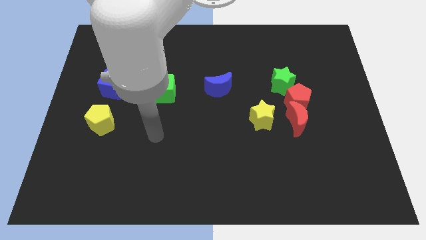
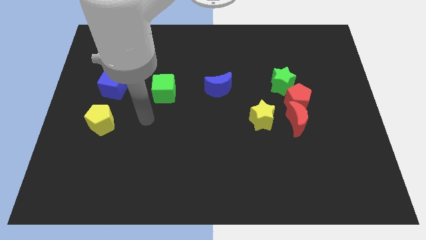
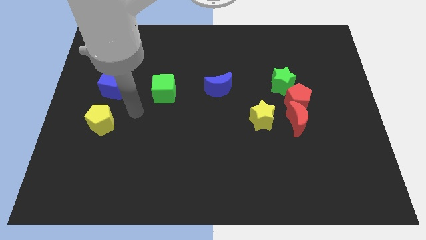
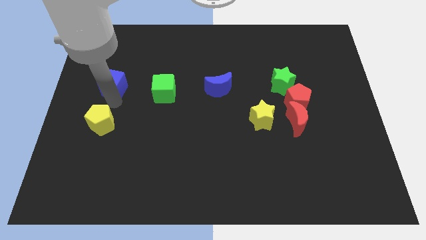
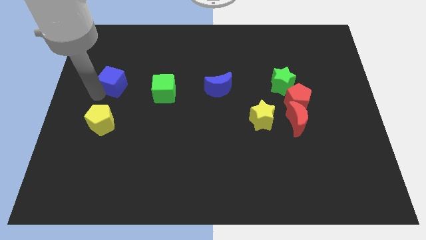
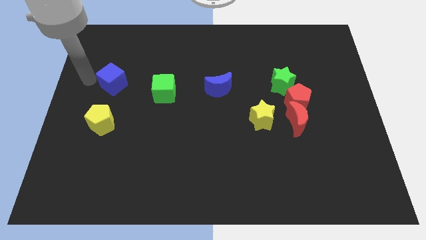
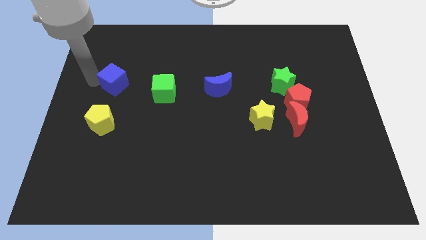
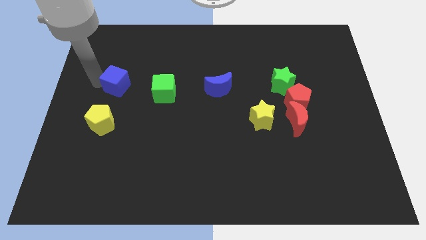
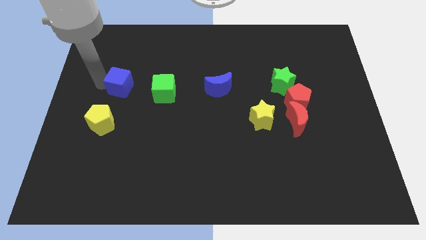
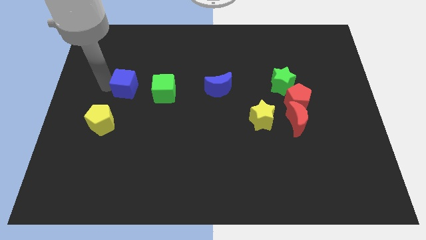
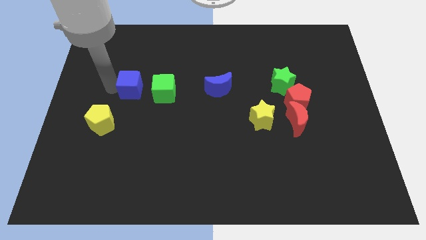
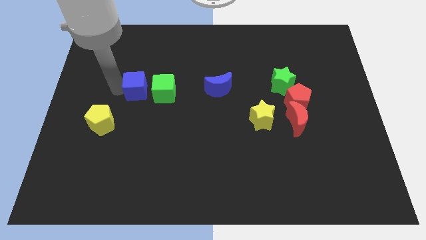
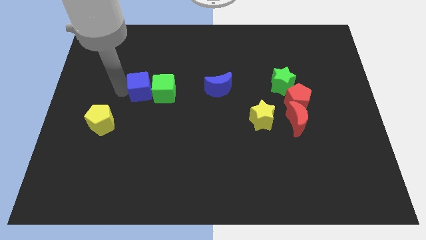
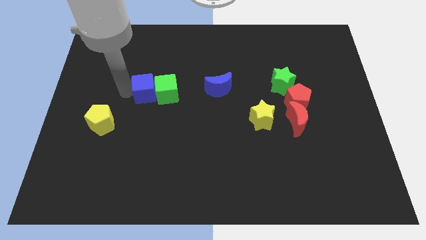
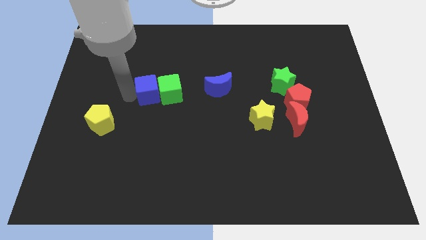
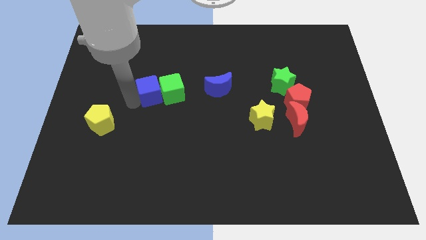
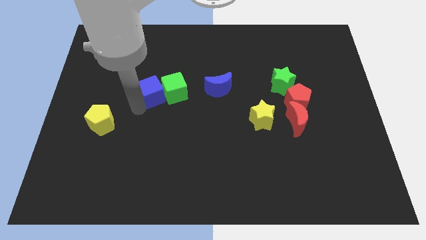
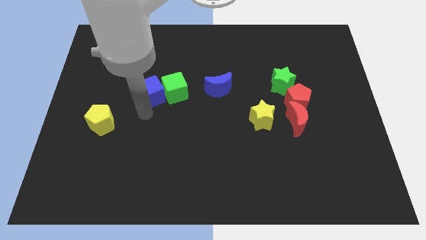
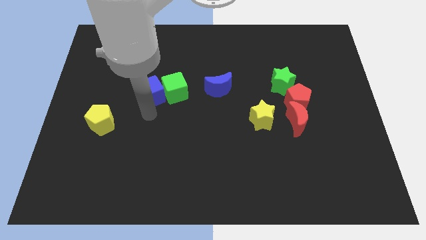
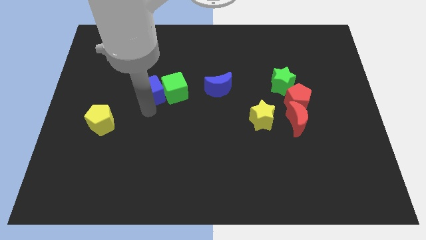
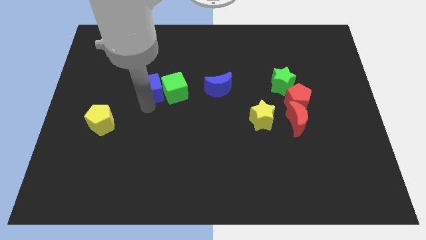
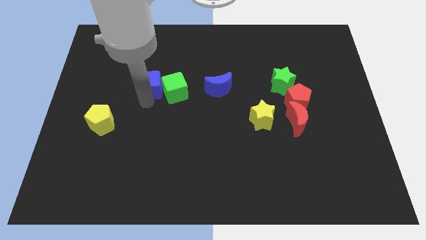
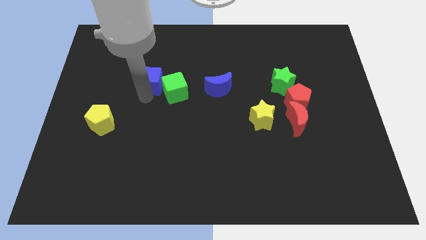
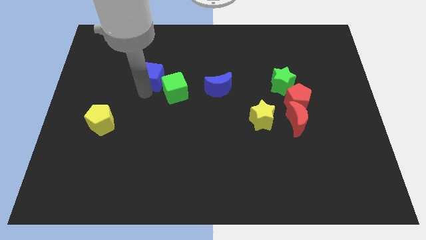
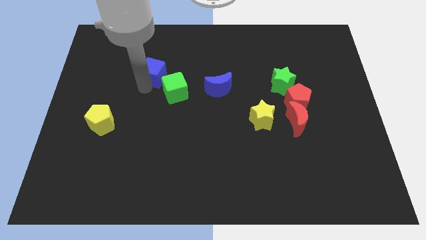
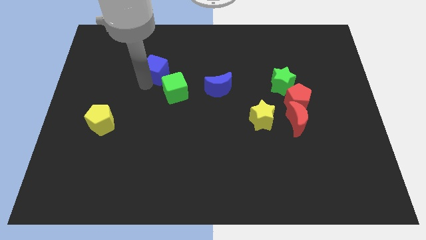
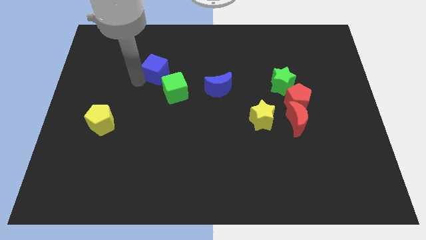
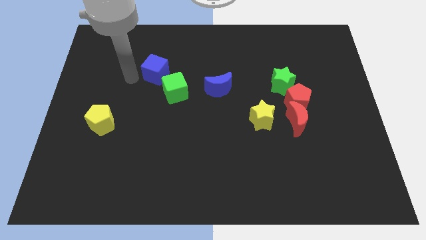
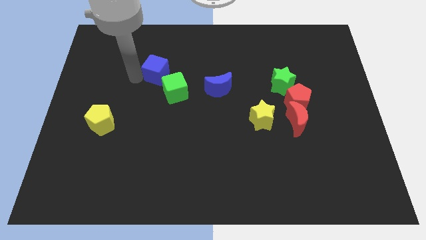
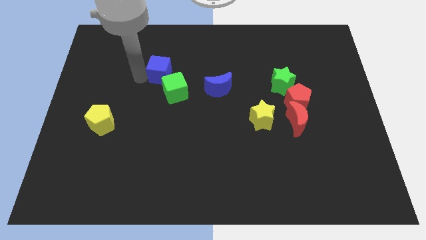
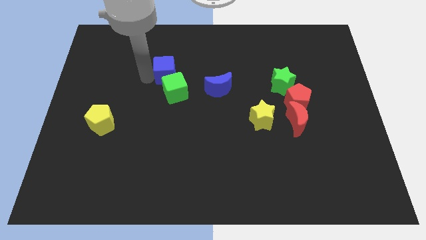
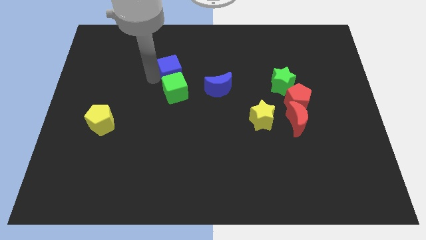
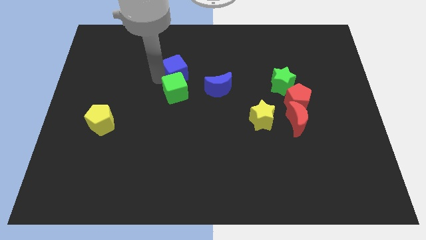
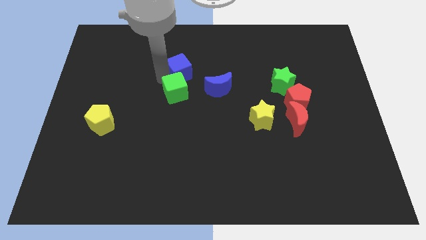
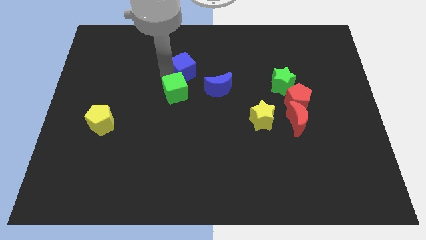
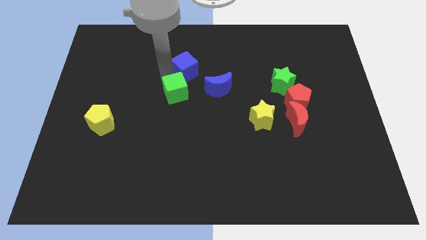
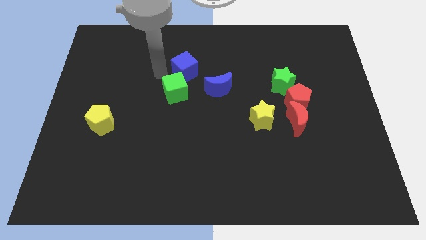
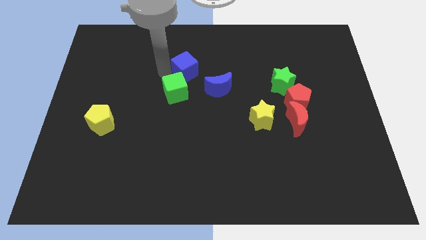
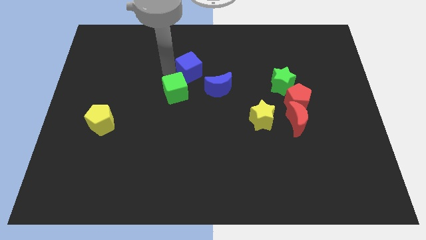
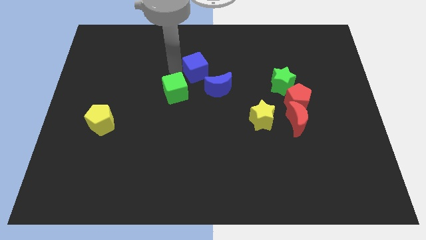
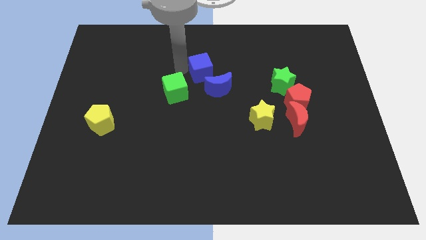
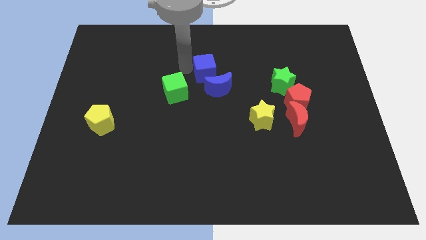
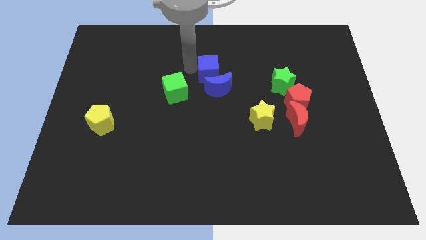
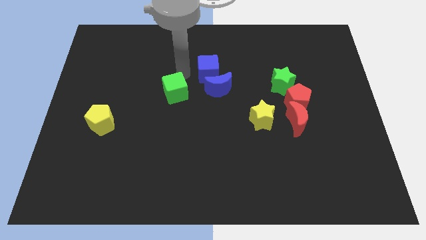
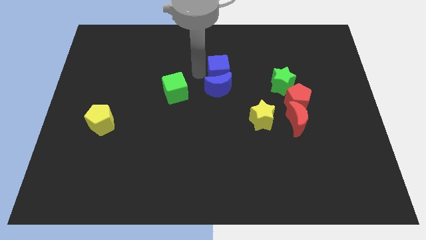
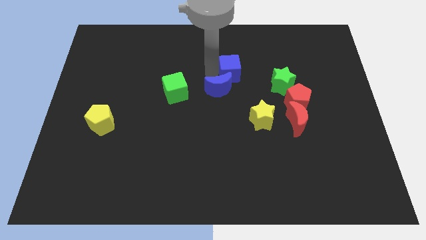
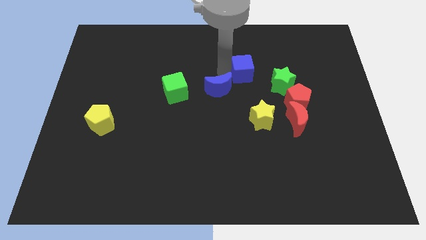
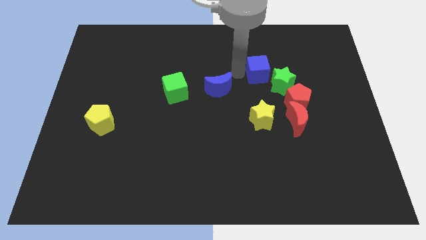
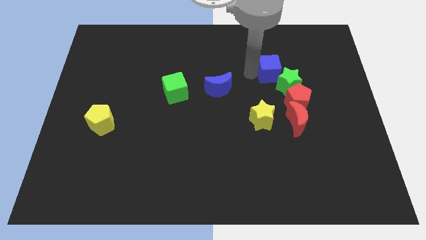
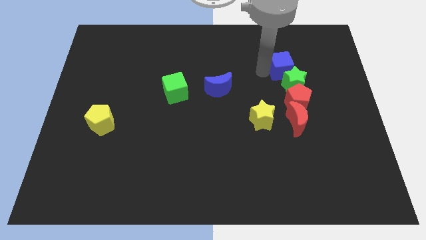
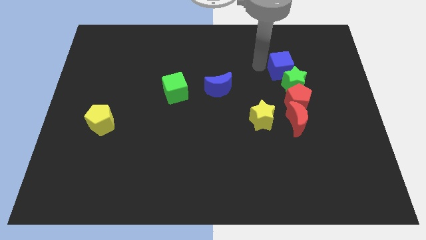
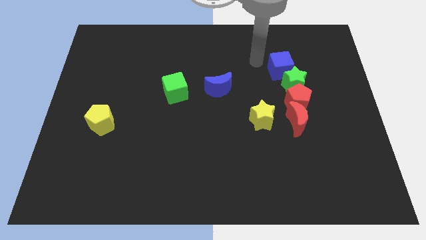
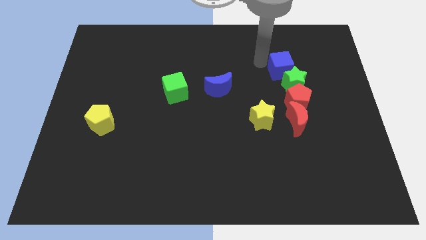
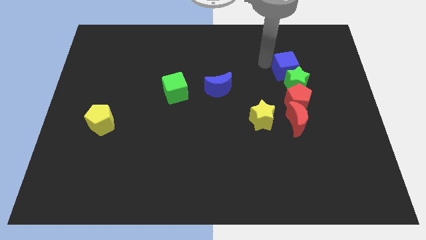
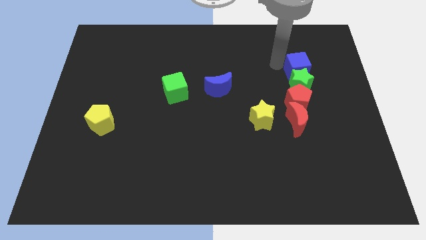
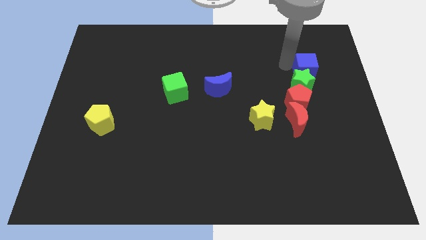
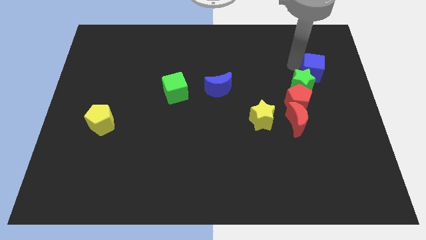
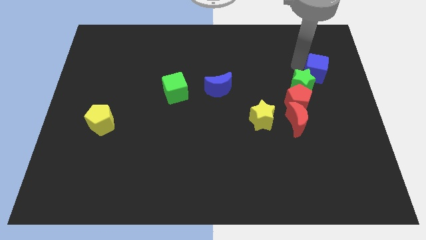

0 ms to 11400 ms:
push the blue cube right of the green star

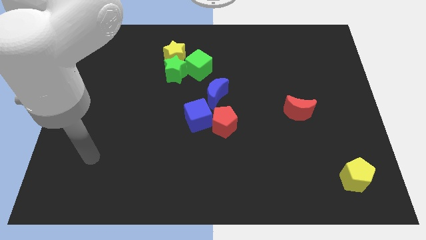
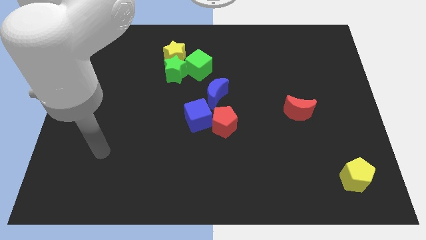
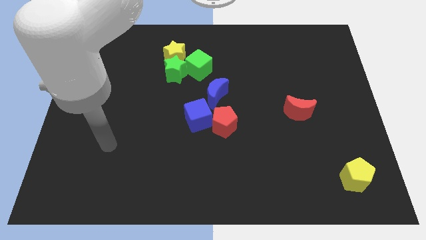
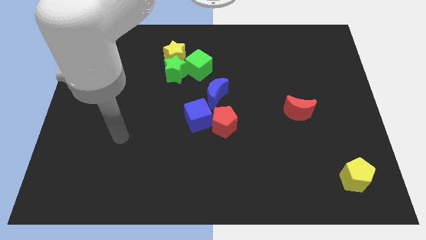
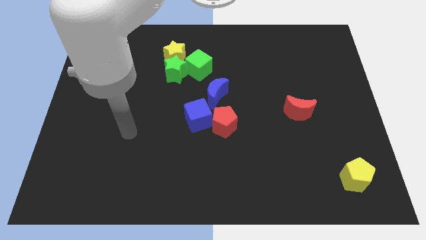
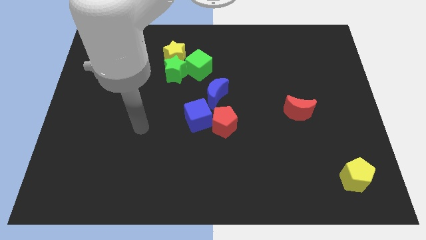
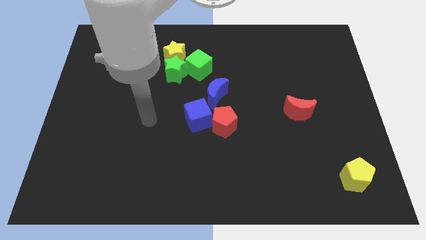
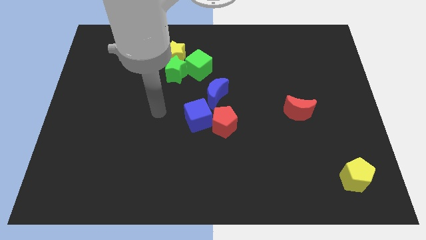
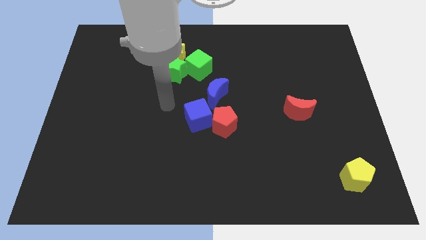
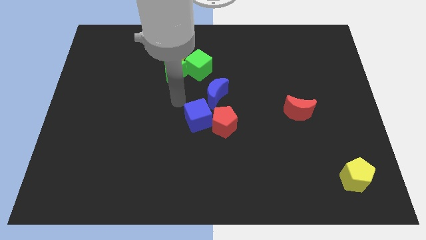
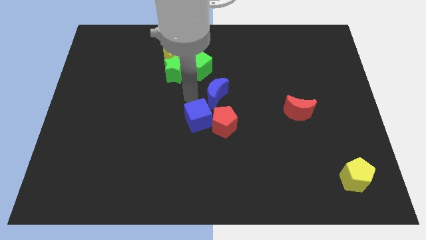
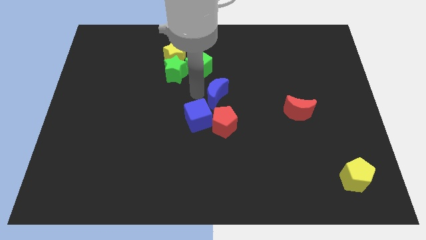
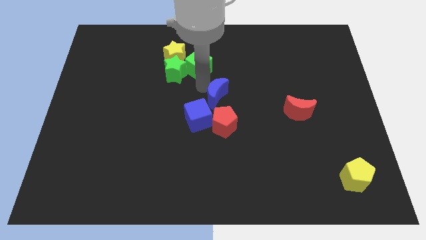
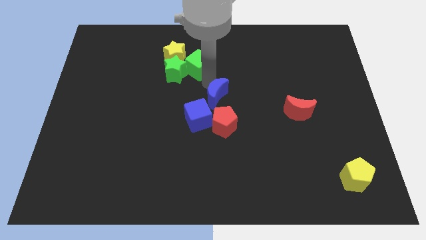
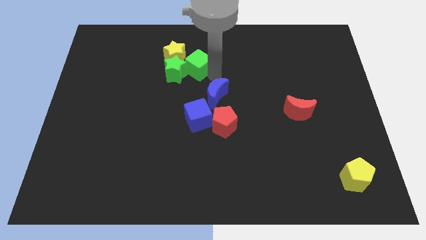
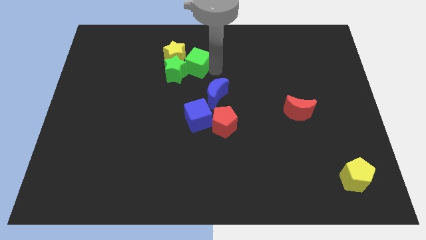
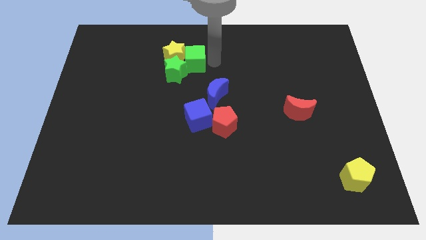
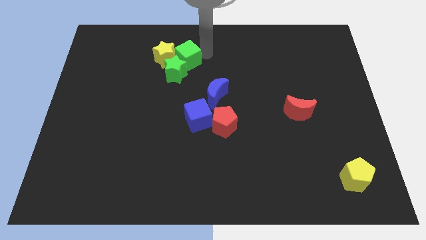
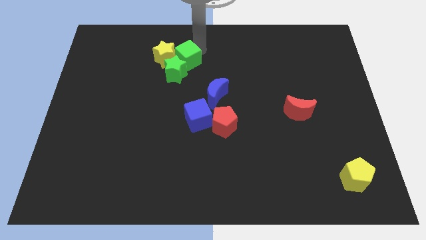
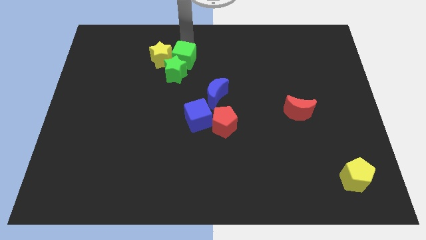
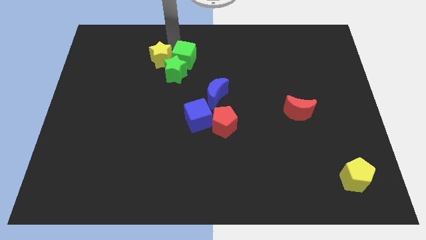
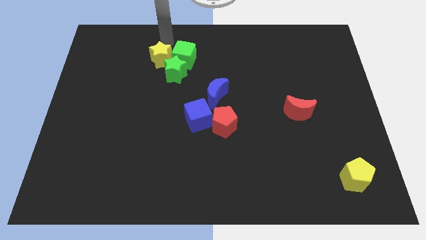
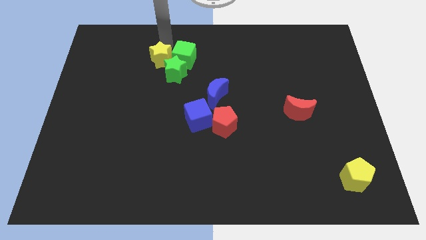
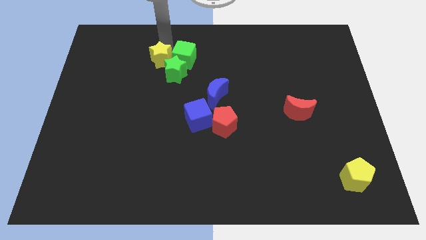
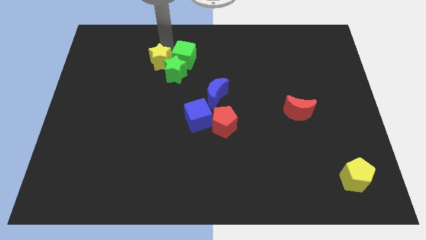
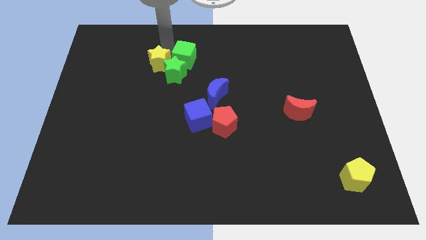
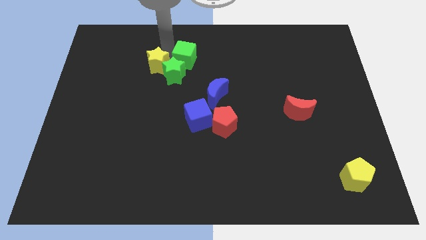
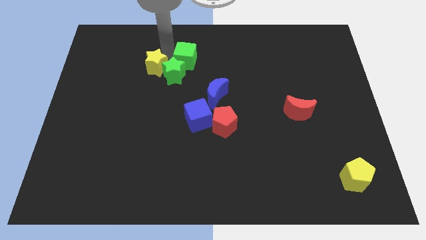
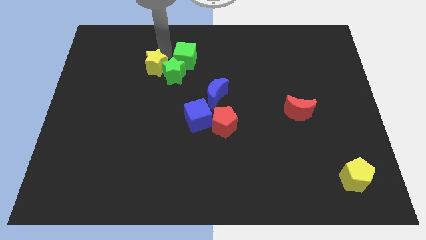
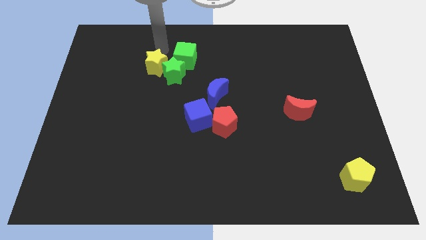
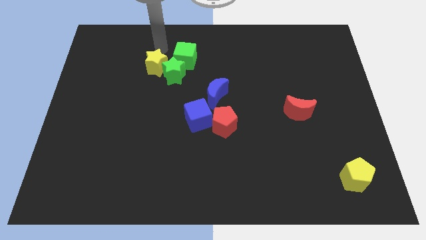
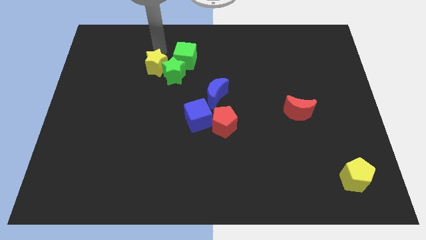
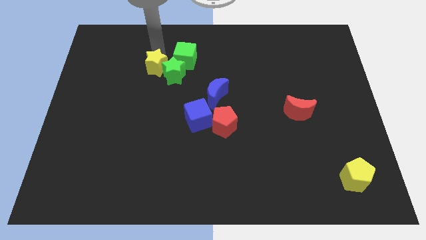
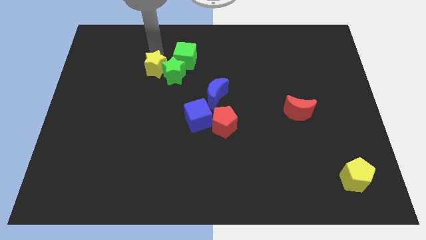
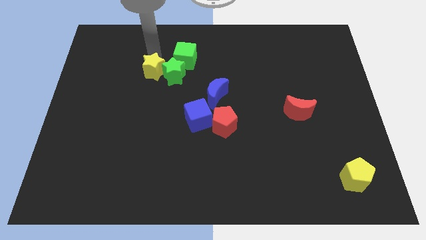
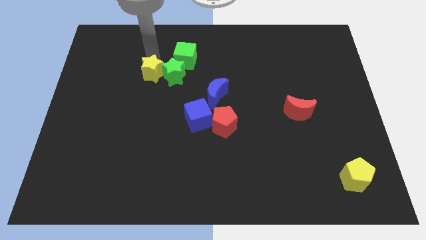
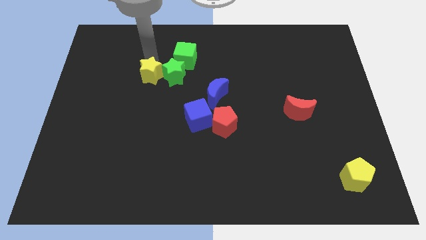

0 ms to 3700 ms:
push the yellow star diagonally down and to the left of the green star
